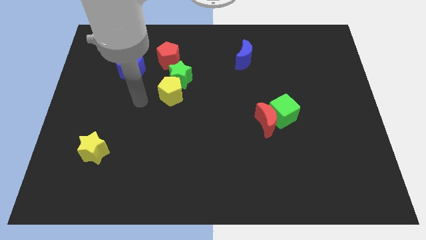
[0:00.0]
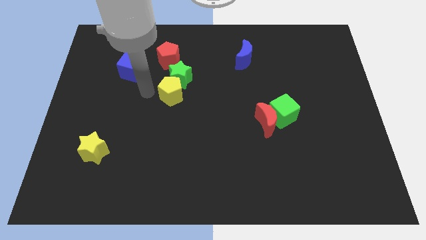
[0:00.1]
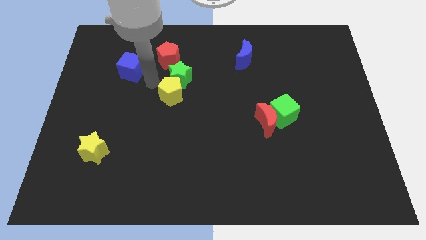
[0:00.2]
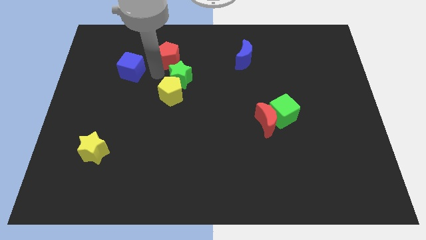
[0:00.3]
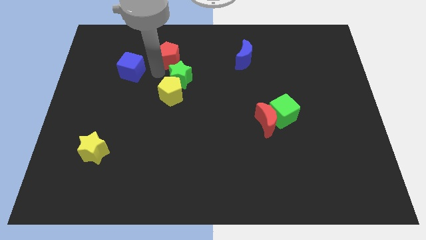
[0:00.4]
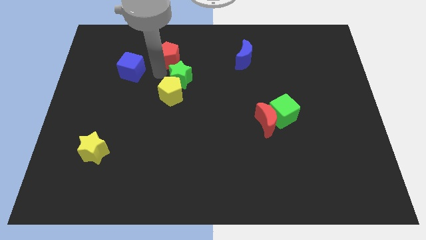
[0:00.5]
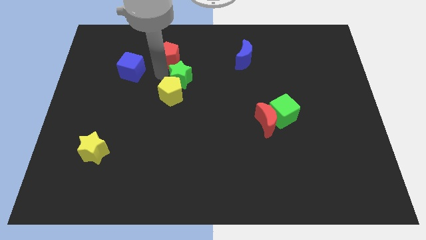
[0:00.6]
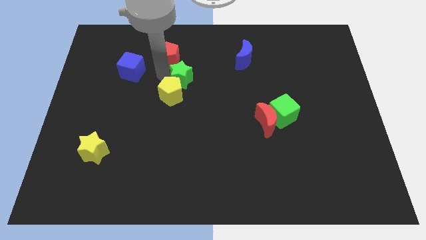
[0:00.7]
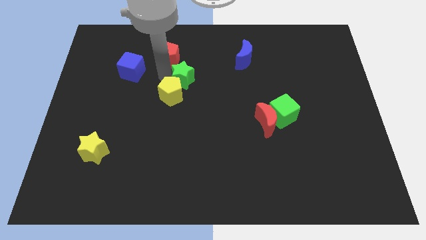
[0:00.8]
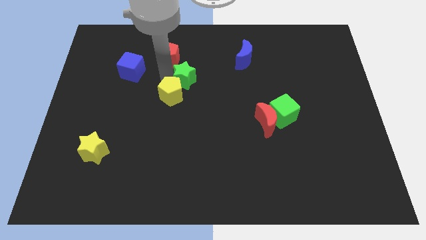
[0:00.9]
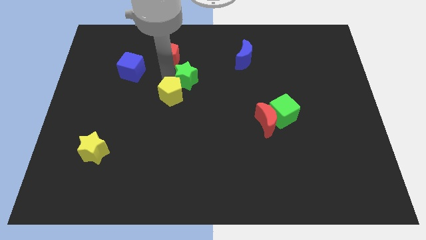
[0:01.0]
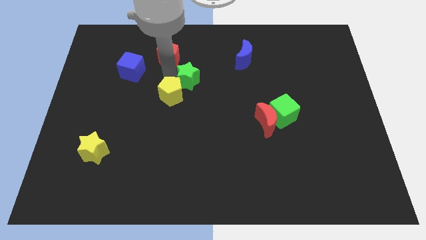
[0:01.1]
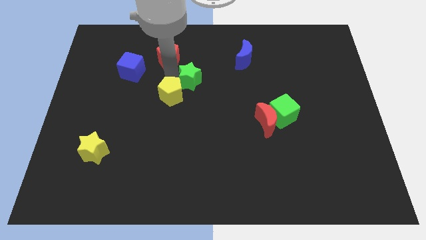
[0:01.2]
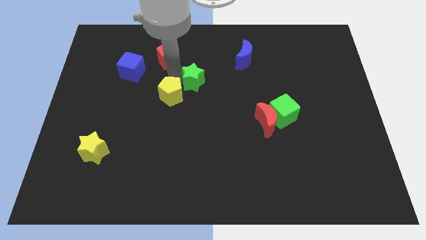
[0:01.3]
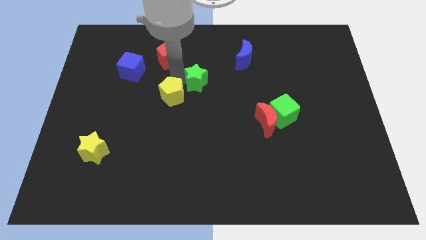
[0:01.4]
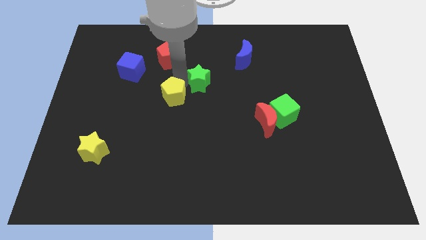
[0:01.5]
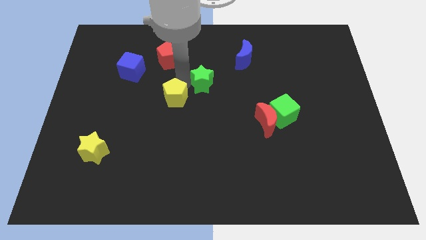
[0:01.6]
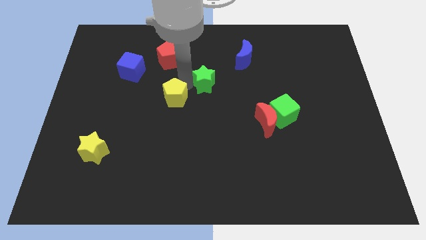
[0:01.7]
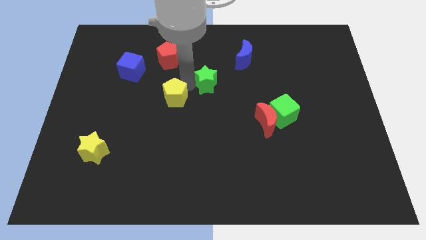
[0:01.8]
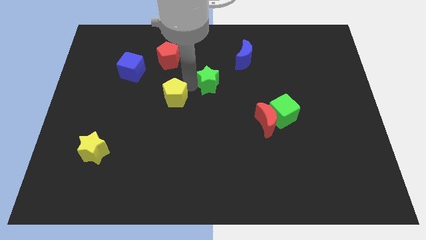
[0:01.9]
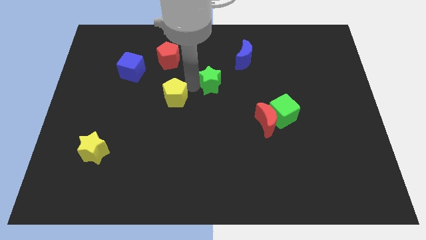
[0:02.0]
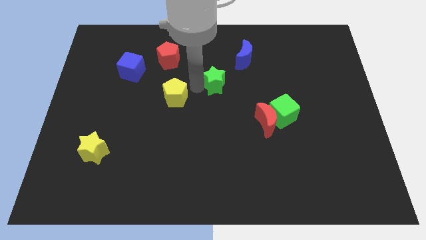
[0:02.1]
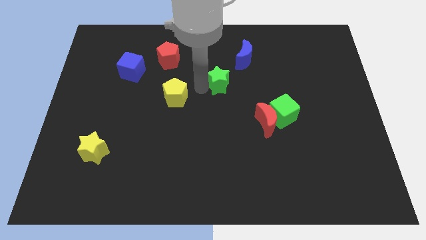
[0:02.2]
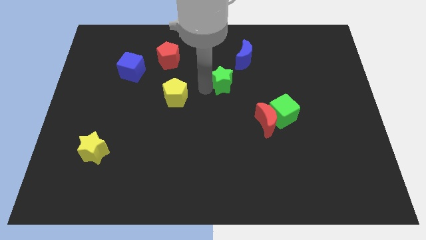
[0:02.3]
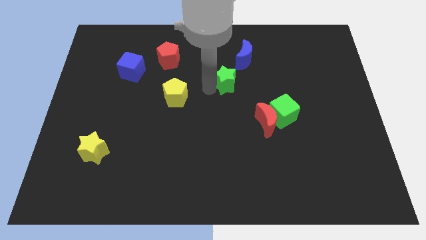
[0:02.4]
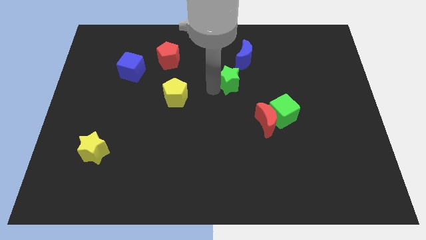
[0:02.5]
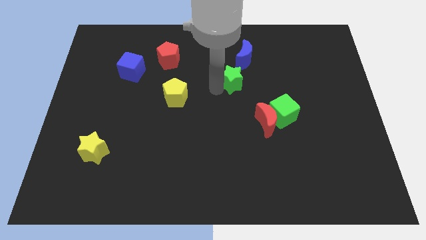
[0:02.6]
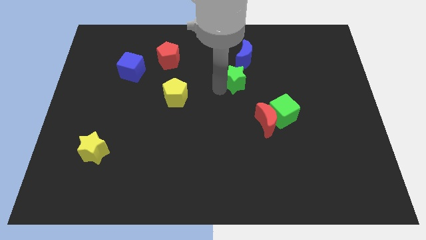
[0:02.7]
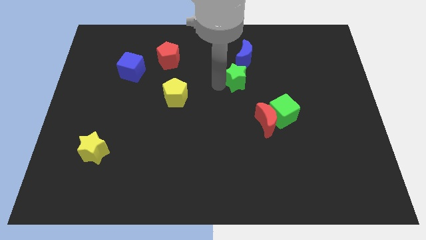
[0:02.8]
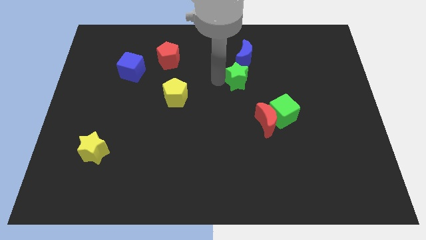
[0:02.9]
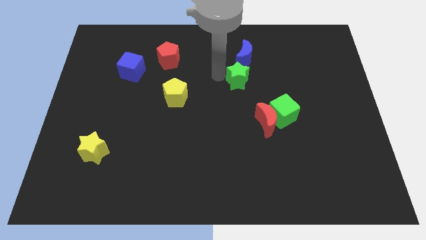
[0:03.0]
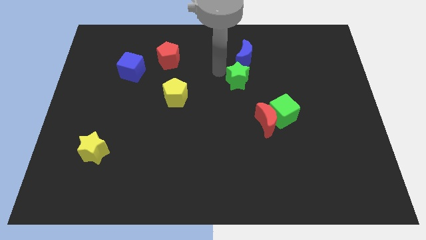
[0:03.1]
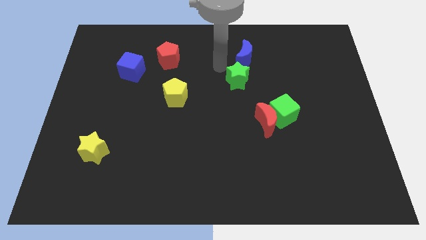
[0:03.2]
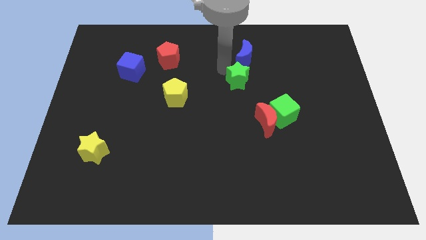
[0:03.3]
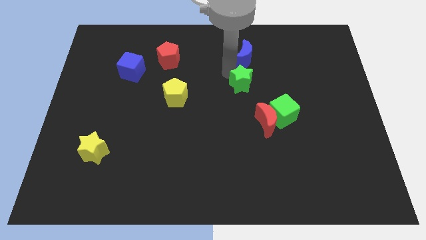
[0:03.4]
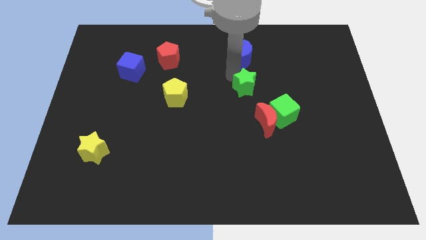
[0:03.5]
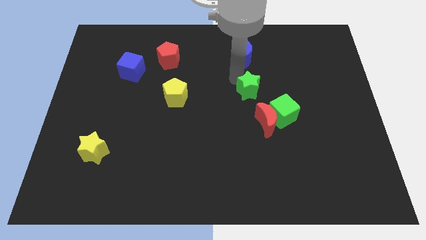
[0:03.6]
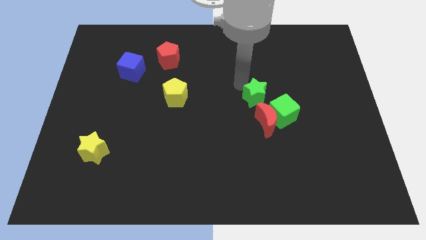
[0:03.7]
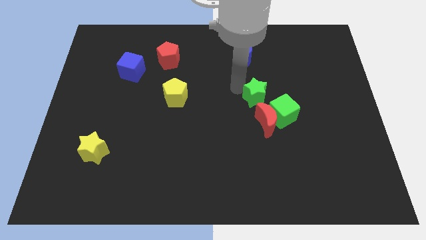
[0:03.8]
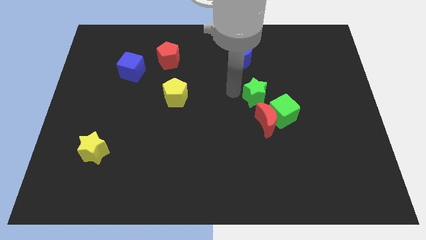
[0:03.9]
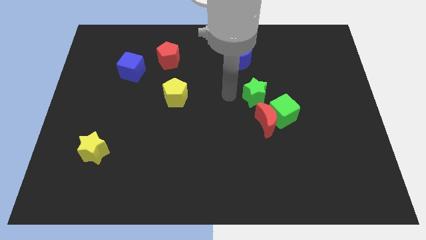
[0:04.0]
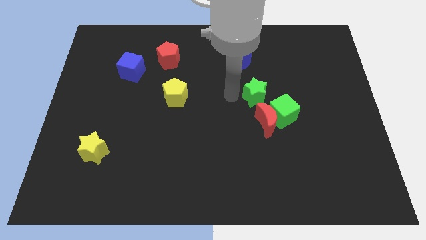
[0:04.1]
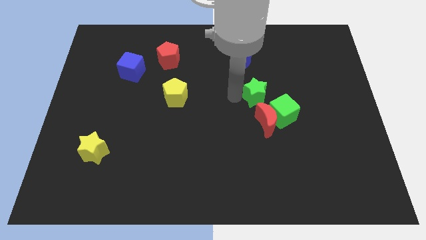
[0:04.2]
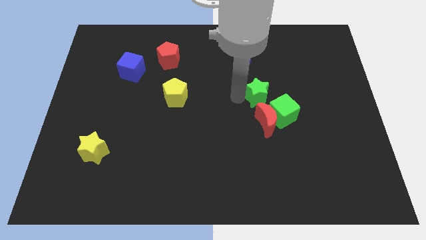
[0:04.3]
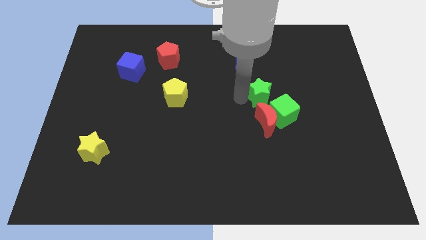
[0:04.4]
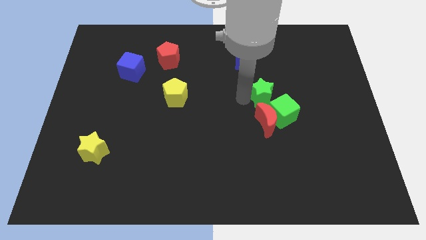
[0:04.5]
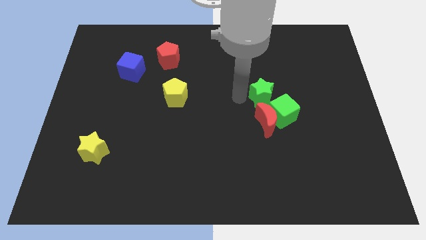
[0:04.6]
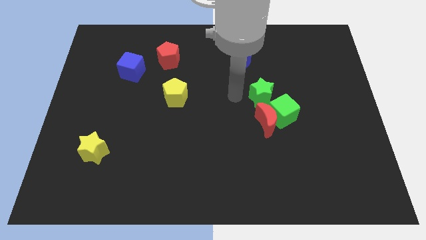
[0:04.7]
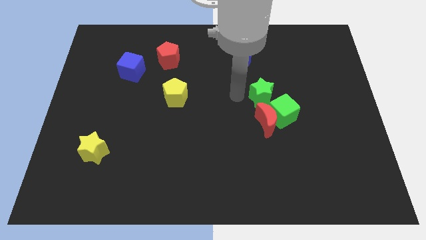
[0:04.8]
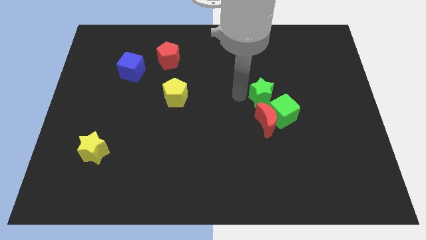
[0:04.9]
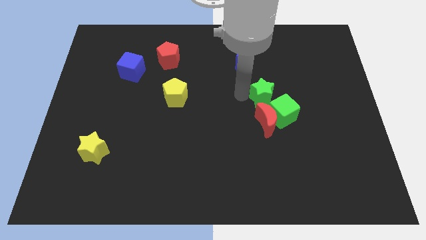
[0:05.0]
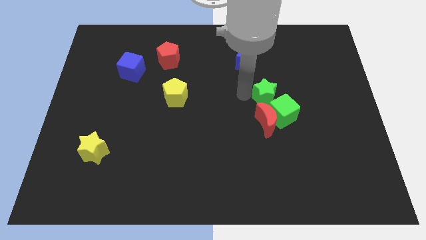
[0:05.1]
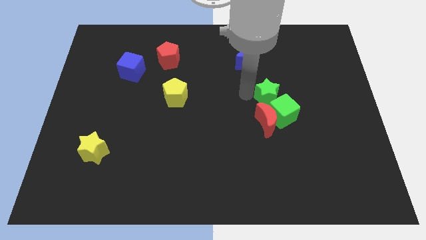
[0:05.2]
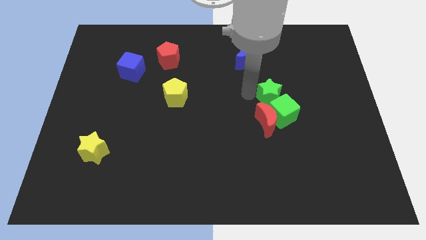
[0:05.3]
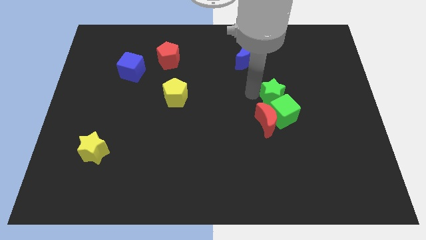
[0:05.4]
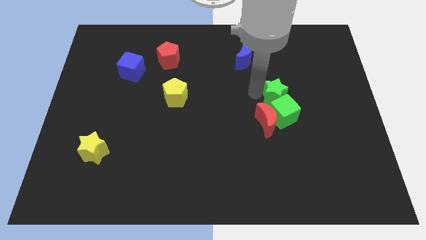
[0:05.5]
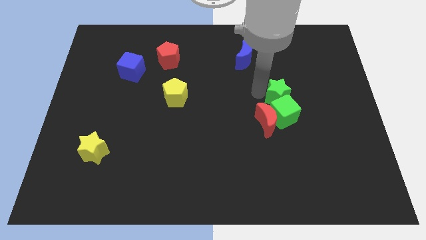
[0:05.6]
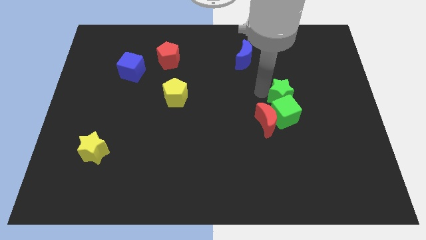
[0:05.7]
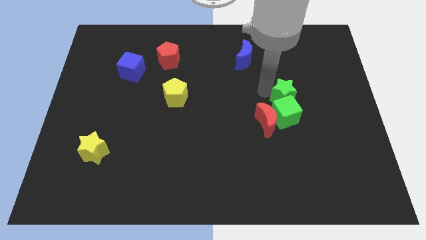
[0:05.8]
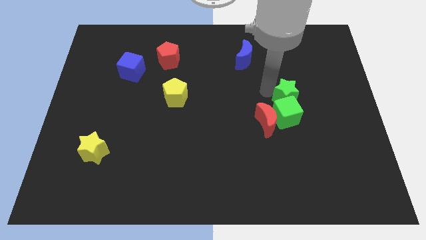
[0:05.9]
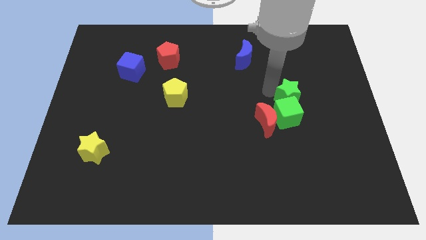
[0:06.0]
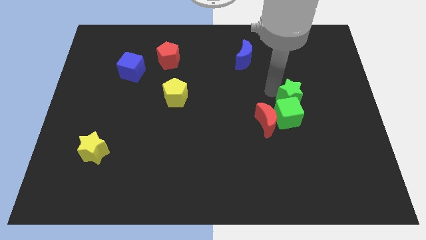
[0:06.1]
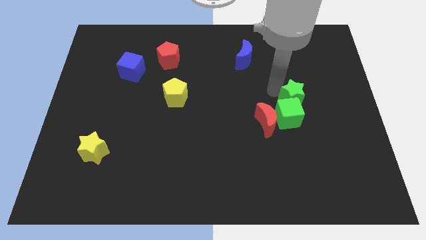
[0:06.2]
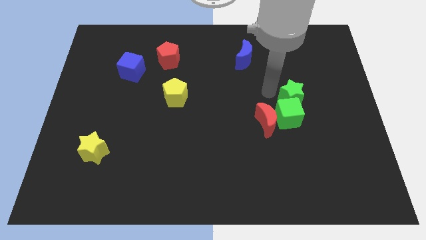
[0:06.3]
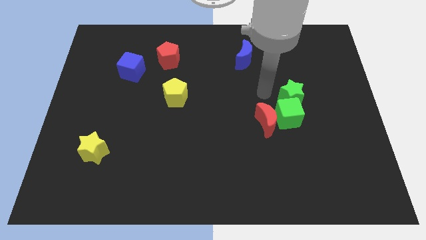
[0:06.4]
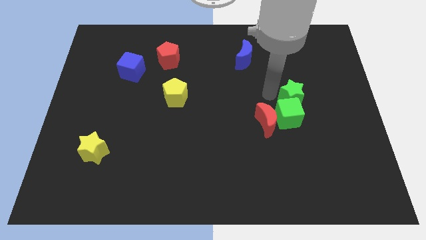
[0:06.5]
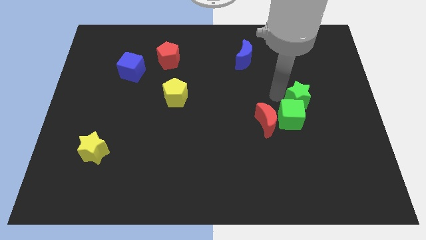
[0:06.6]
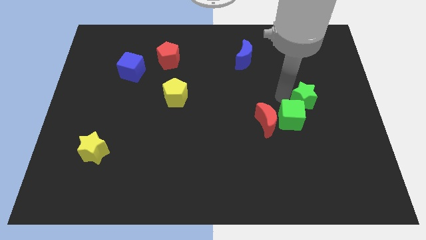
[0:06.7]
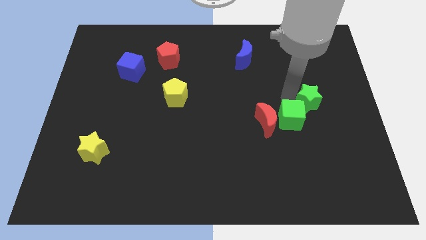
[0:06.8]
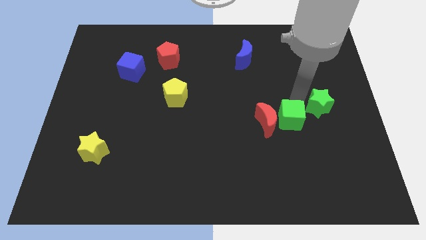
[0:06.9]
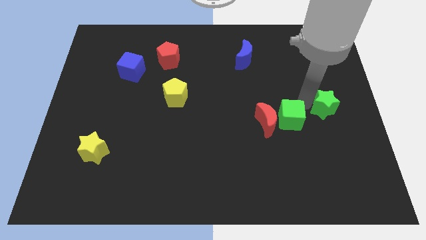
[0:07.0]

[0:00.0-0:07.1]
put the green star to the right side
